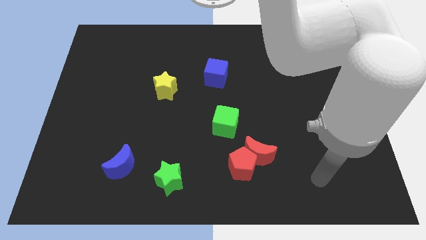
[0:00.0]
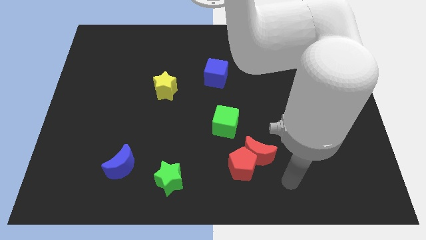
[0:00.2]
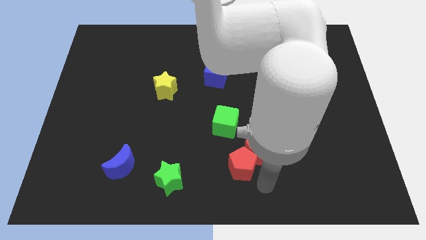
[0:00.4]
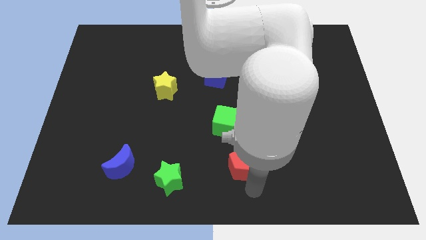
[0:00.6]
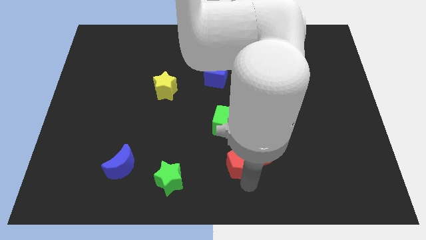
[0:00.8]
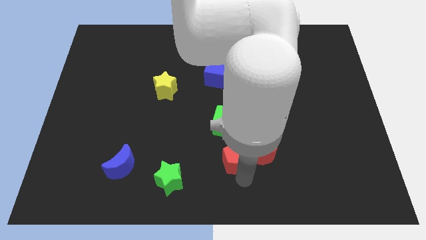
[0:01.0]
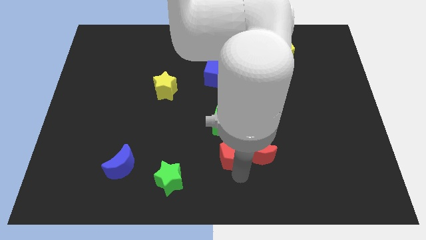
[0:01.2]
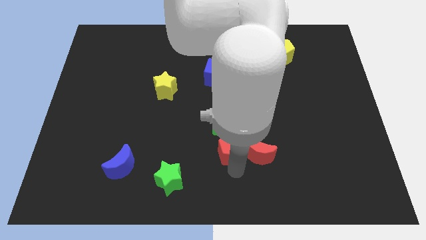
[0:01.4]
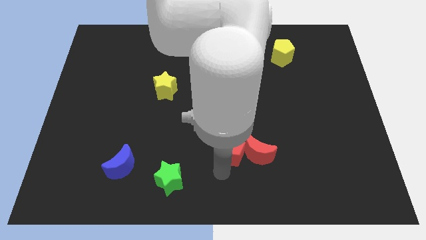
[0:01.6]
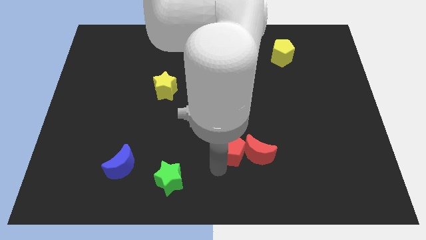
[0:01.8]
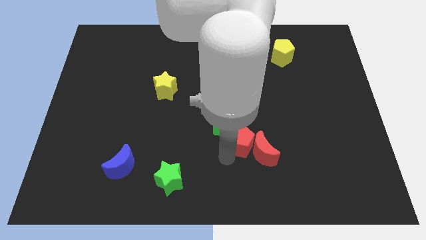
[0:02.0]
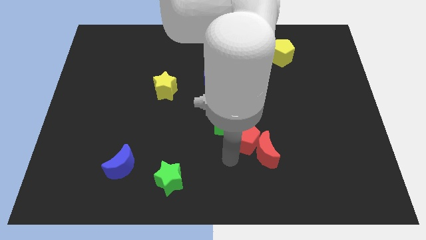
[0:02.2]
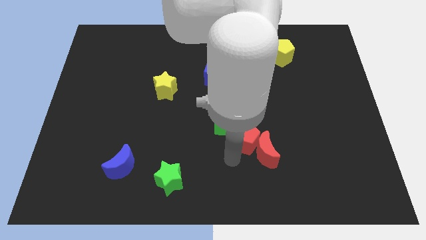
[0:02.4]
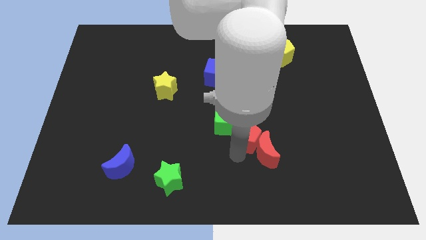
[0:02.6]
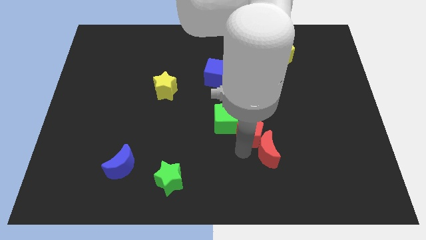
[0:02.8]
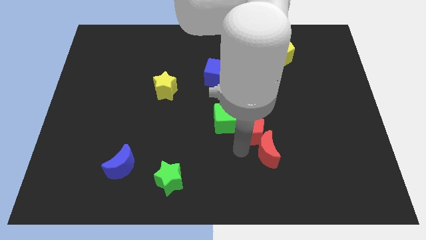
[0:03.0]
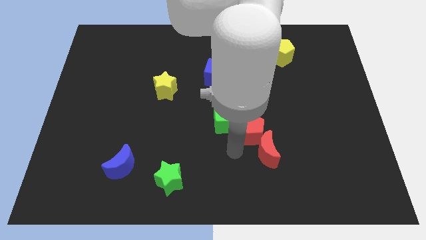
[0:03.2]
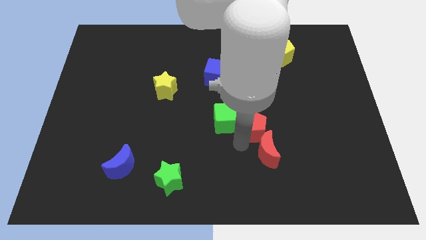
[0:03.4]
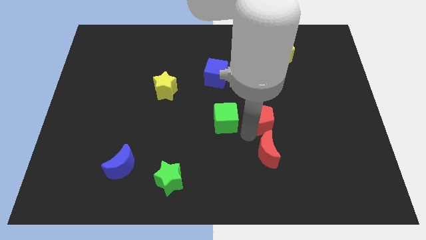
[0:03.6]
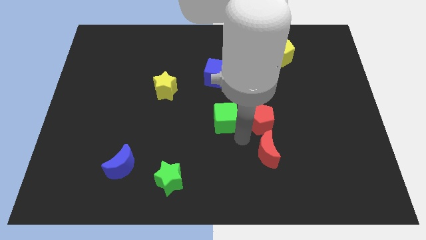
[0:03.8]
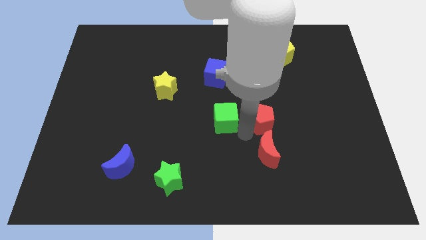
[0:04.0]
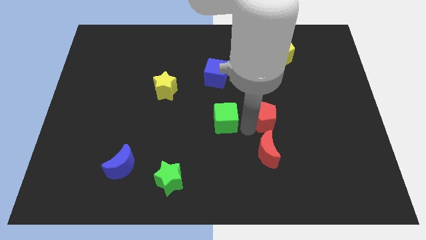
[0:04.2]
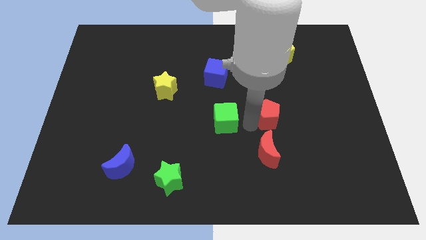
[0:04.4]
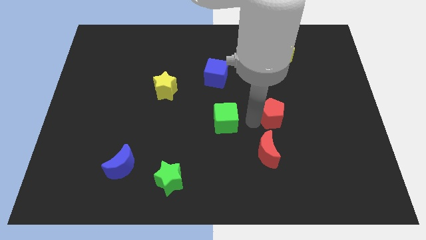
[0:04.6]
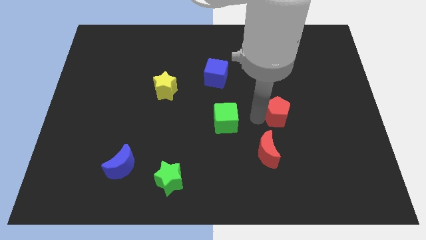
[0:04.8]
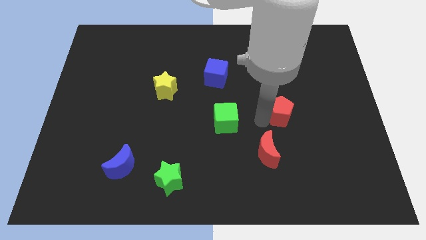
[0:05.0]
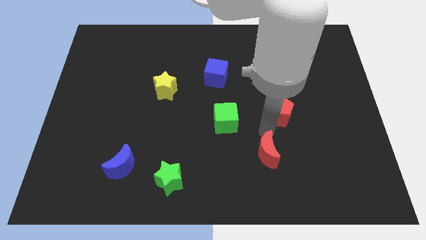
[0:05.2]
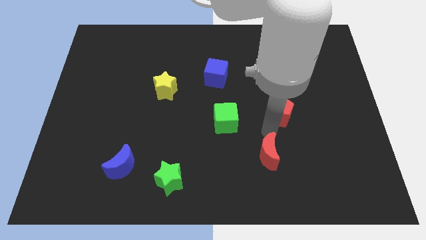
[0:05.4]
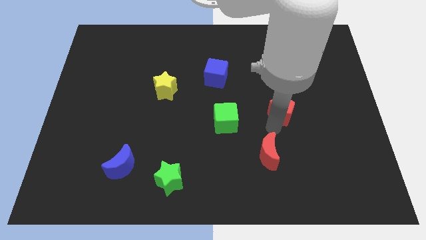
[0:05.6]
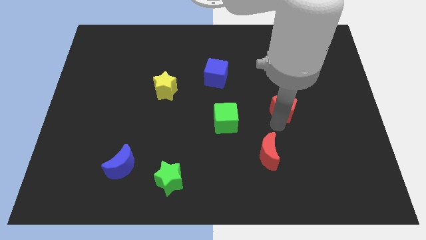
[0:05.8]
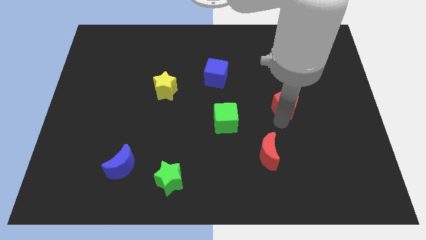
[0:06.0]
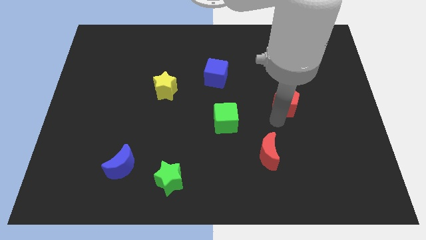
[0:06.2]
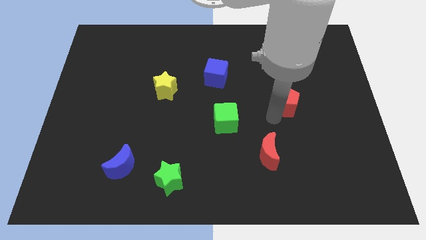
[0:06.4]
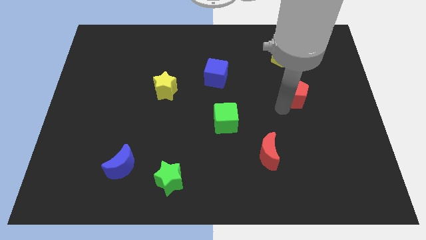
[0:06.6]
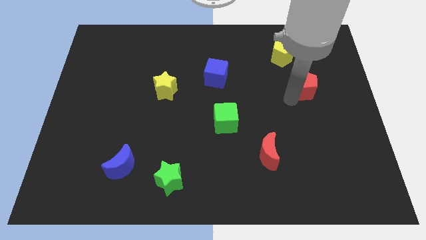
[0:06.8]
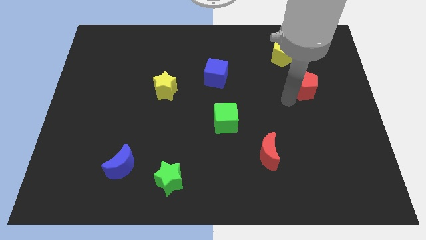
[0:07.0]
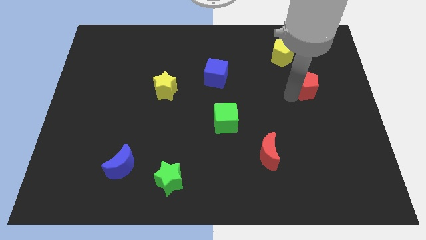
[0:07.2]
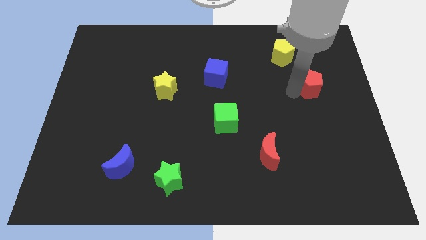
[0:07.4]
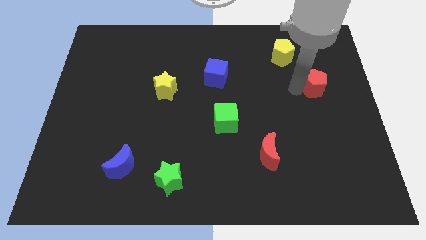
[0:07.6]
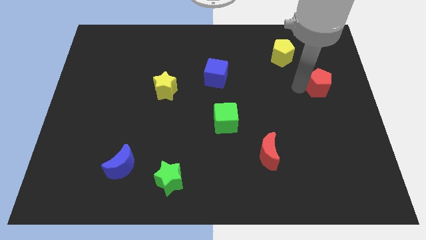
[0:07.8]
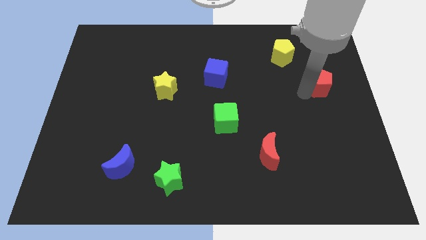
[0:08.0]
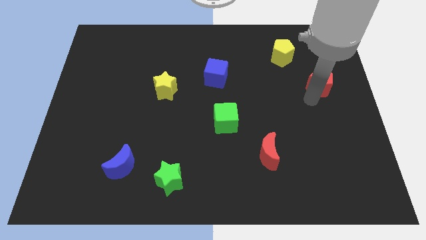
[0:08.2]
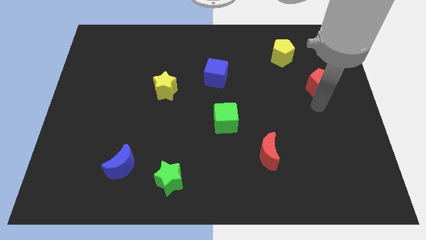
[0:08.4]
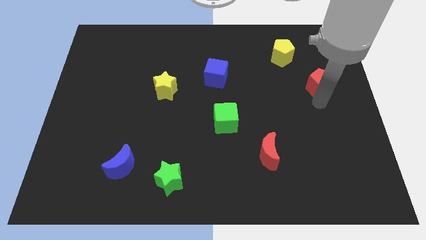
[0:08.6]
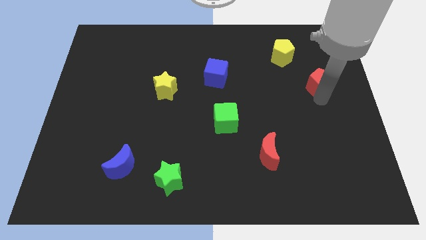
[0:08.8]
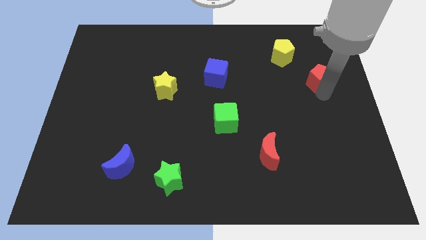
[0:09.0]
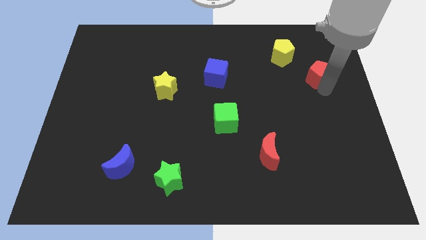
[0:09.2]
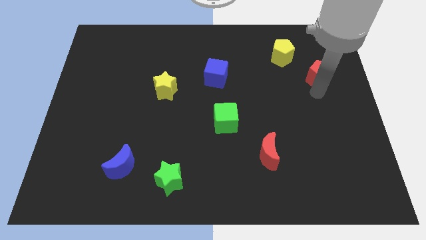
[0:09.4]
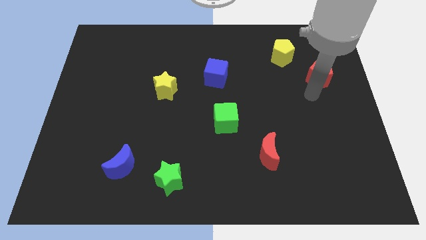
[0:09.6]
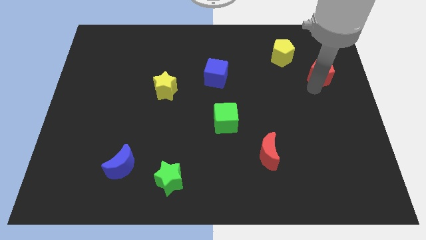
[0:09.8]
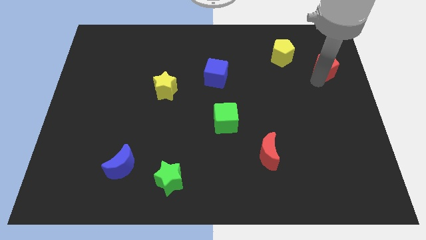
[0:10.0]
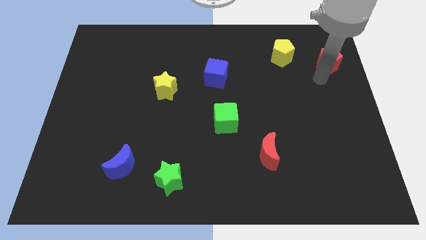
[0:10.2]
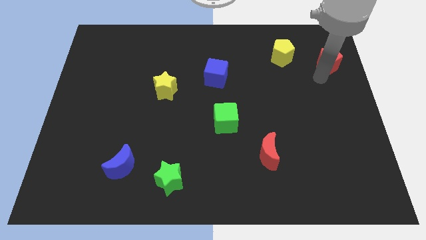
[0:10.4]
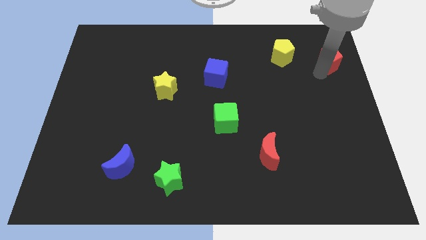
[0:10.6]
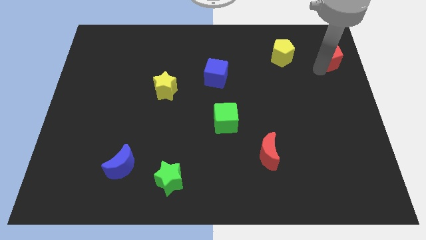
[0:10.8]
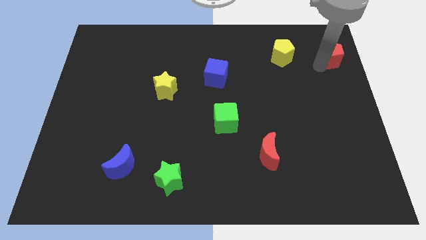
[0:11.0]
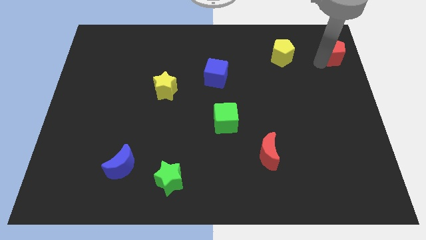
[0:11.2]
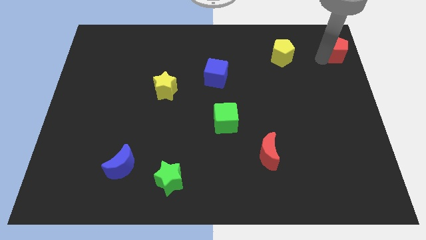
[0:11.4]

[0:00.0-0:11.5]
put the red pentagon to the top right of the board
